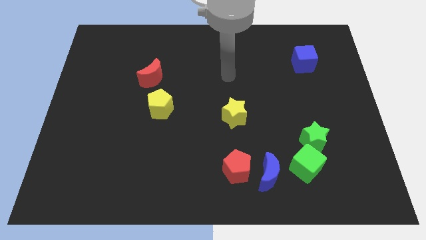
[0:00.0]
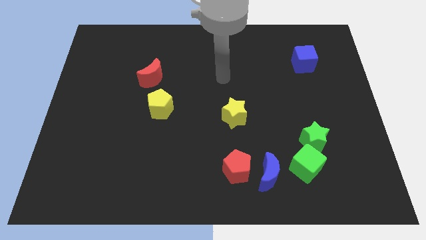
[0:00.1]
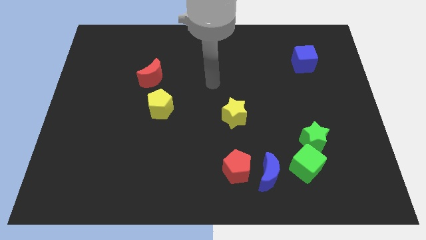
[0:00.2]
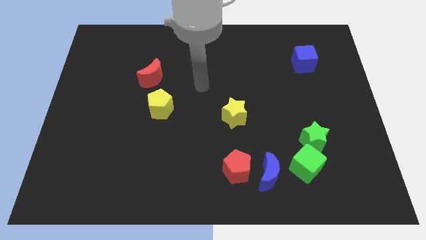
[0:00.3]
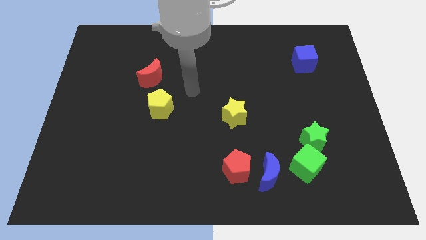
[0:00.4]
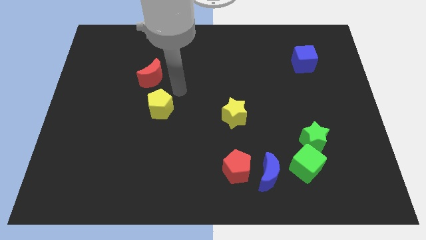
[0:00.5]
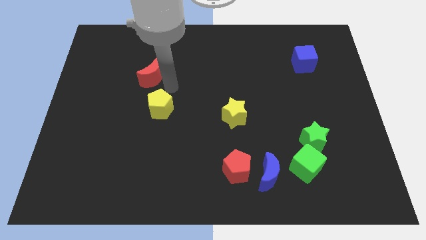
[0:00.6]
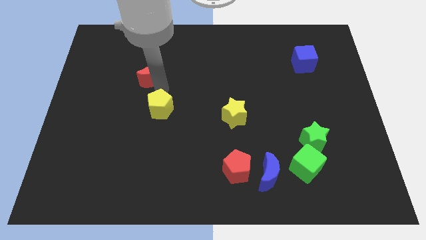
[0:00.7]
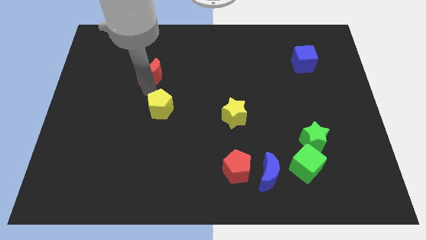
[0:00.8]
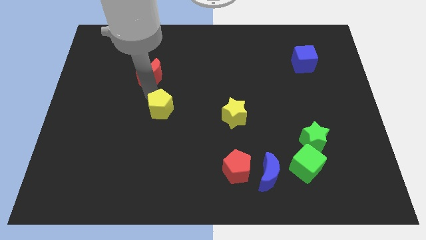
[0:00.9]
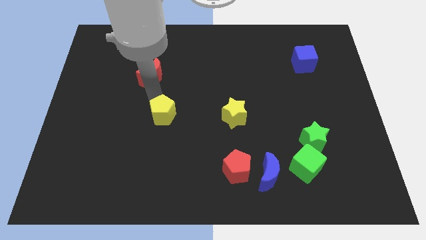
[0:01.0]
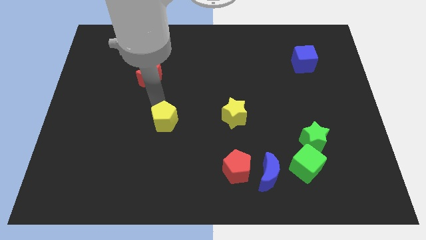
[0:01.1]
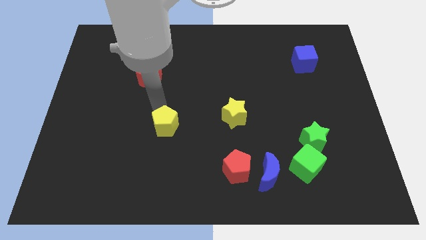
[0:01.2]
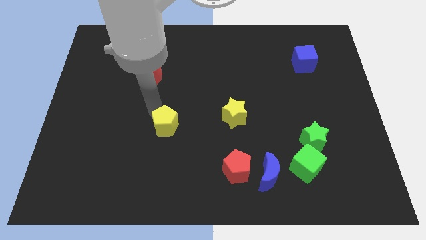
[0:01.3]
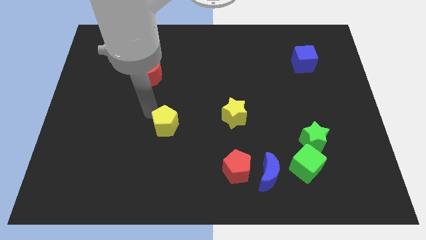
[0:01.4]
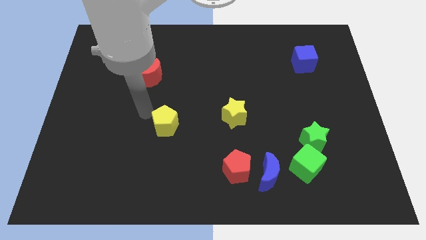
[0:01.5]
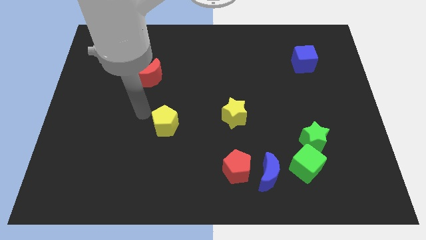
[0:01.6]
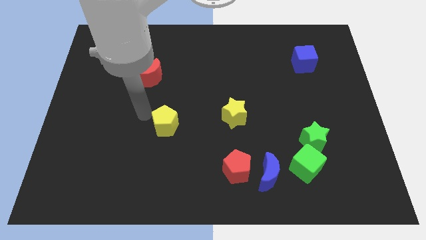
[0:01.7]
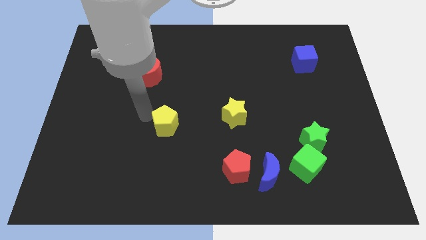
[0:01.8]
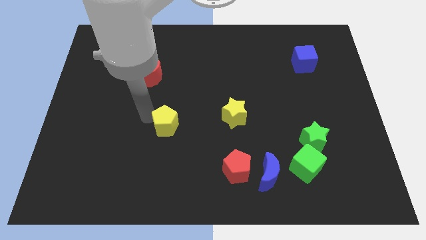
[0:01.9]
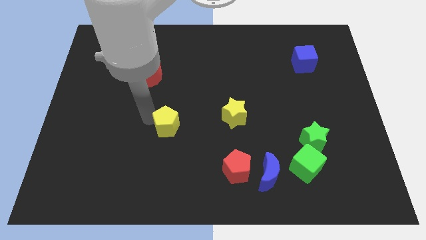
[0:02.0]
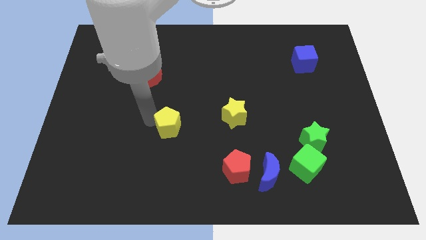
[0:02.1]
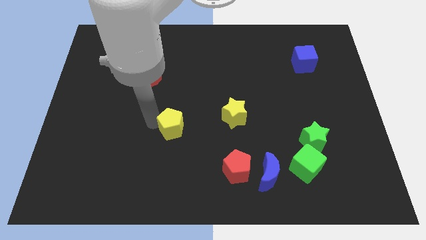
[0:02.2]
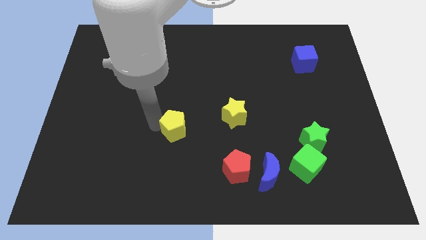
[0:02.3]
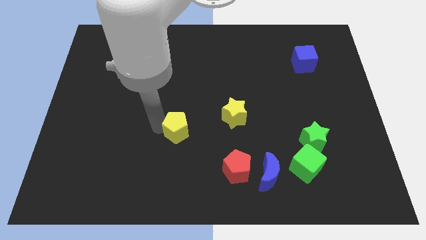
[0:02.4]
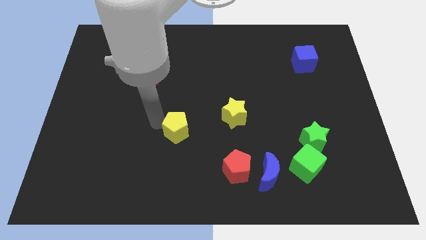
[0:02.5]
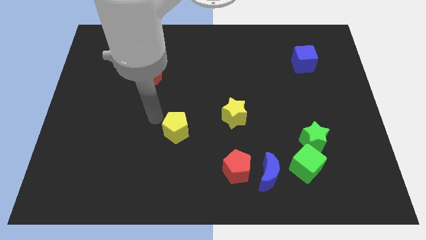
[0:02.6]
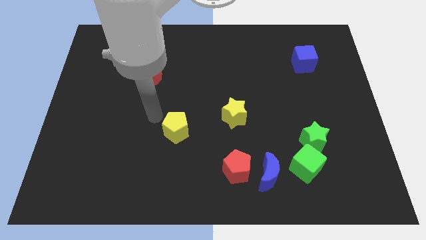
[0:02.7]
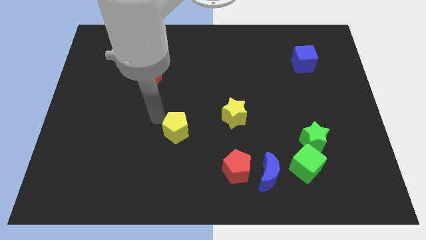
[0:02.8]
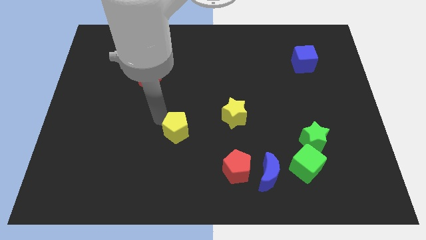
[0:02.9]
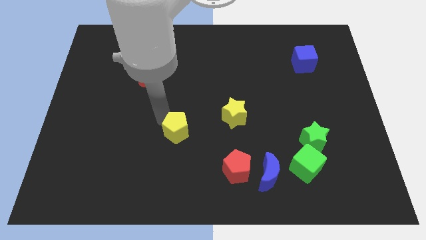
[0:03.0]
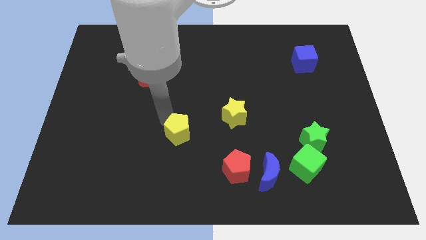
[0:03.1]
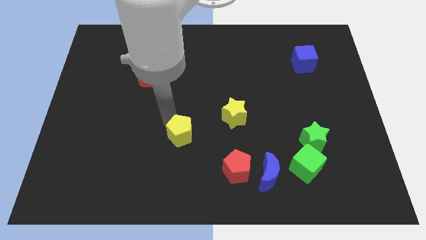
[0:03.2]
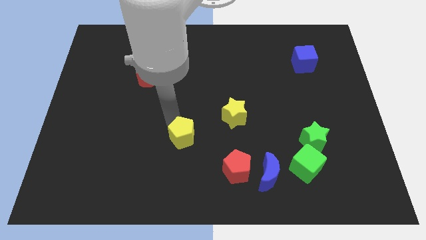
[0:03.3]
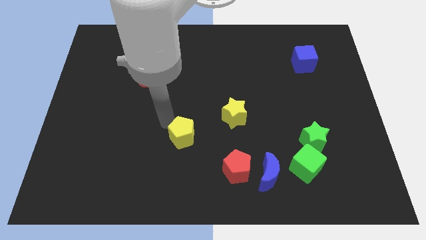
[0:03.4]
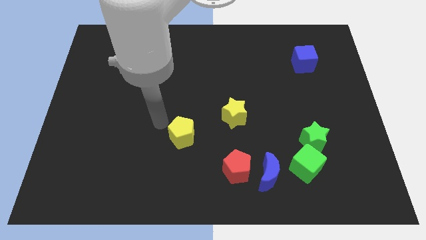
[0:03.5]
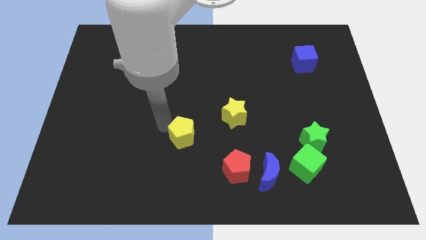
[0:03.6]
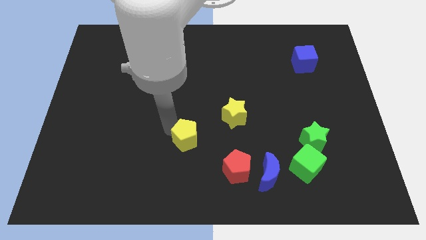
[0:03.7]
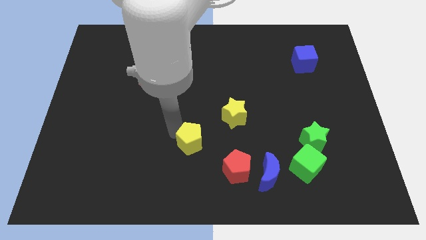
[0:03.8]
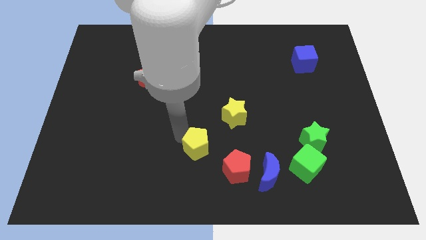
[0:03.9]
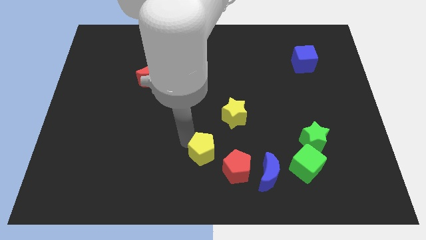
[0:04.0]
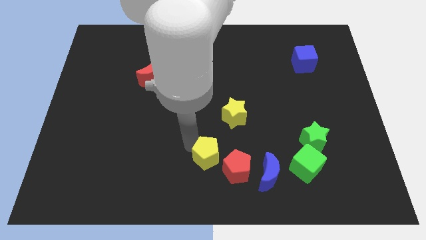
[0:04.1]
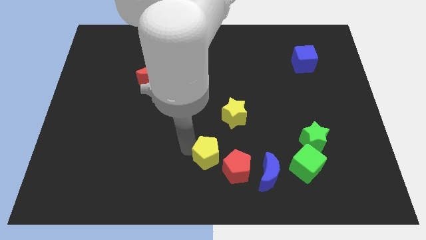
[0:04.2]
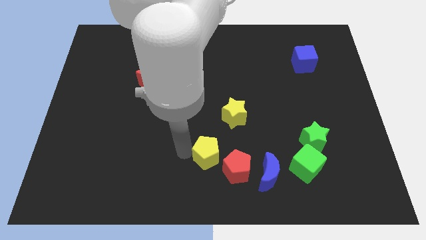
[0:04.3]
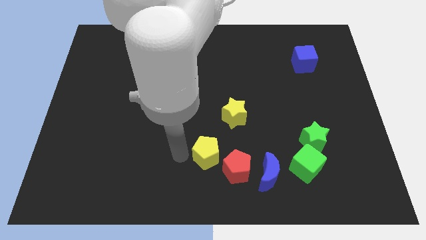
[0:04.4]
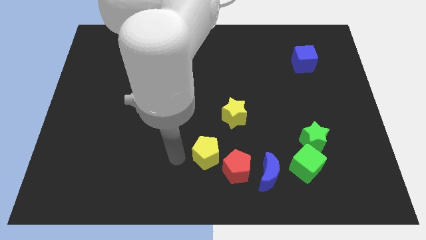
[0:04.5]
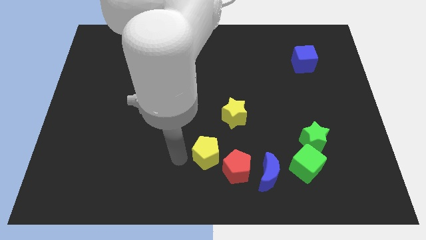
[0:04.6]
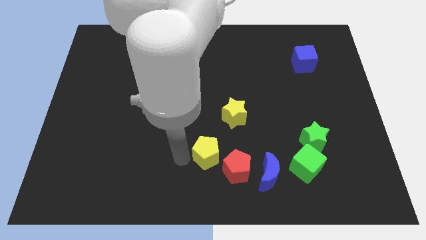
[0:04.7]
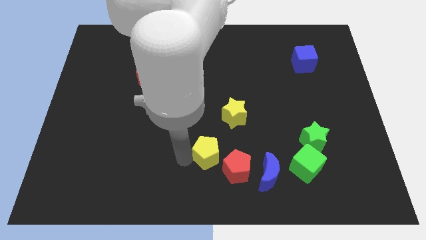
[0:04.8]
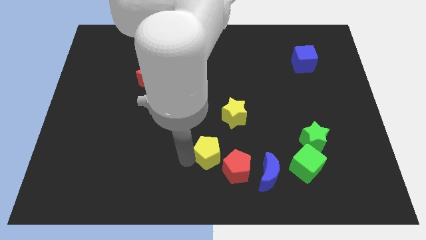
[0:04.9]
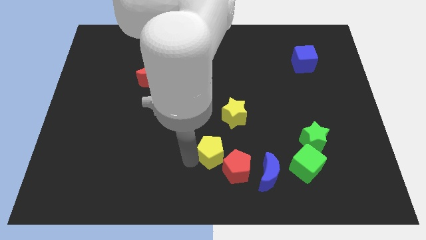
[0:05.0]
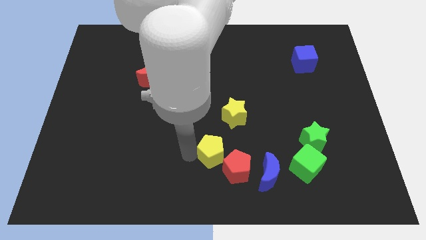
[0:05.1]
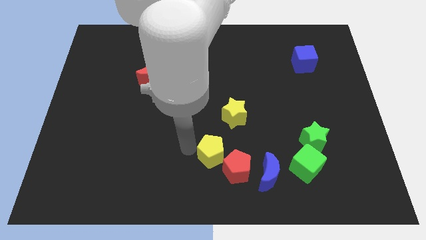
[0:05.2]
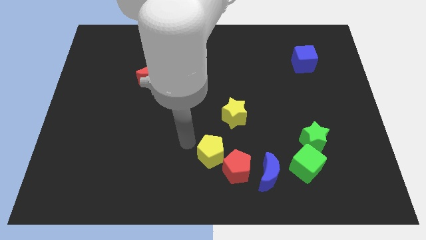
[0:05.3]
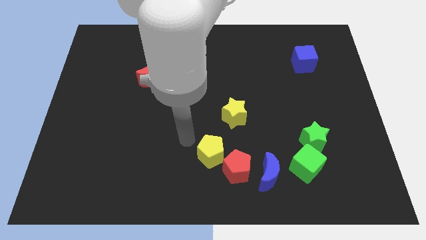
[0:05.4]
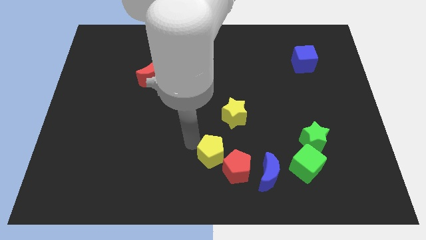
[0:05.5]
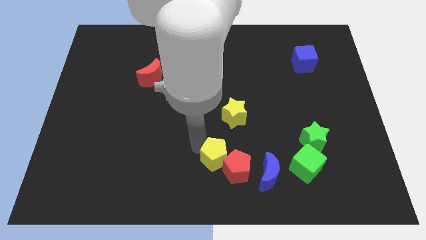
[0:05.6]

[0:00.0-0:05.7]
move the yellow pentagon close to the red pentagon

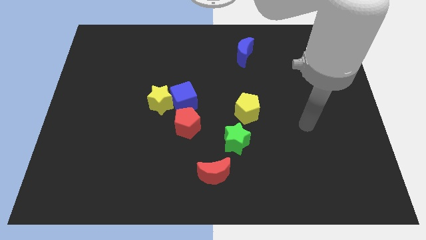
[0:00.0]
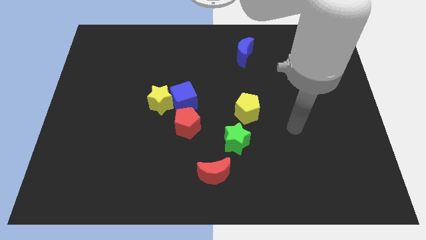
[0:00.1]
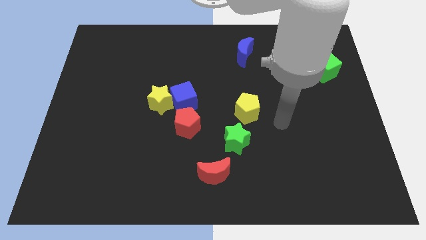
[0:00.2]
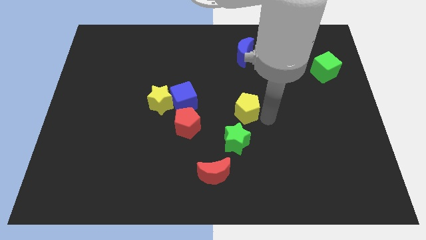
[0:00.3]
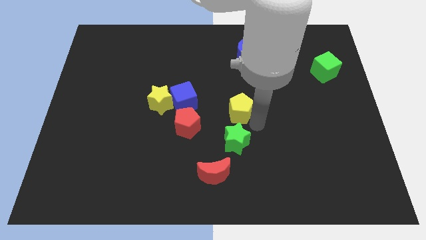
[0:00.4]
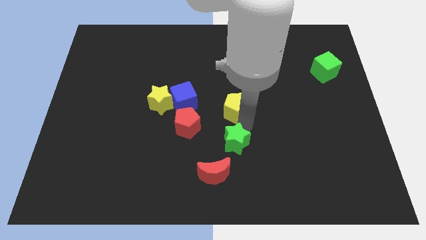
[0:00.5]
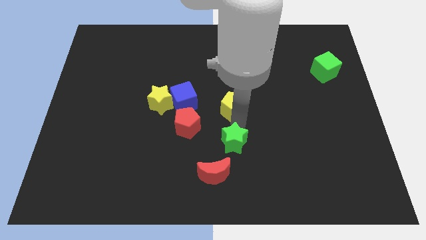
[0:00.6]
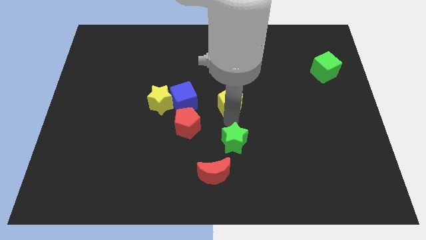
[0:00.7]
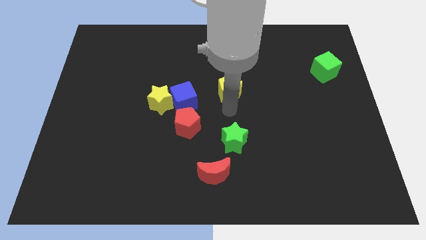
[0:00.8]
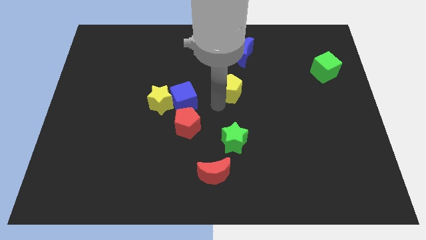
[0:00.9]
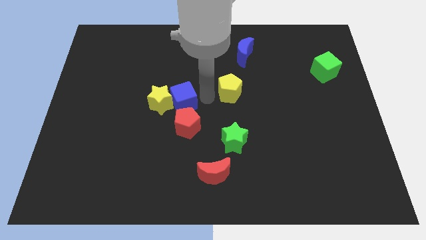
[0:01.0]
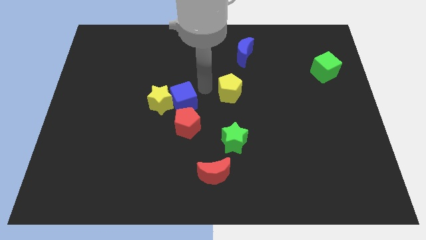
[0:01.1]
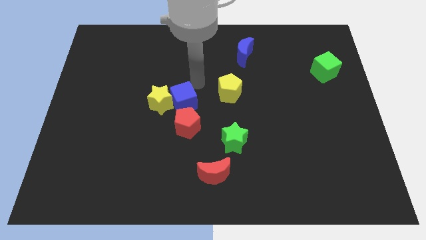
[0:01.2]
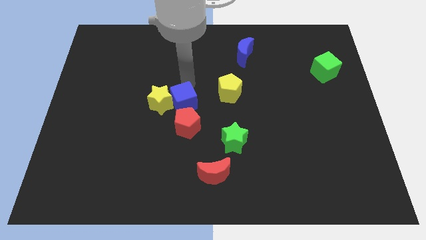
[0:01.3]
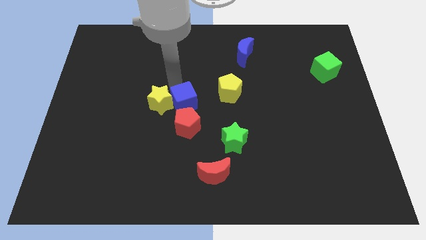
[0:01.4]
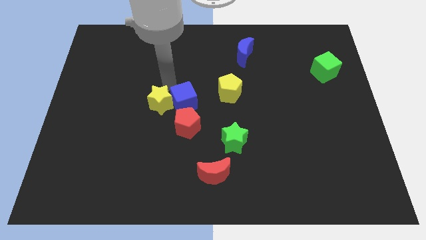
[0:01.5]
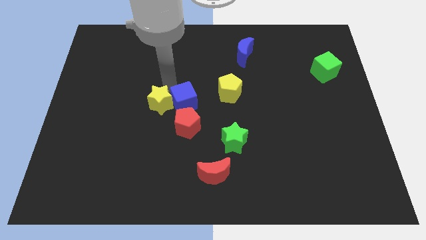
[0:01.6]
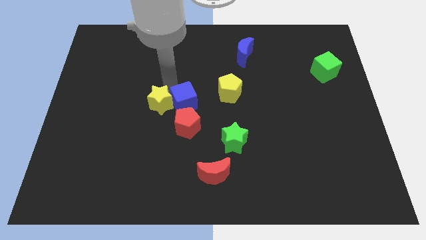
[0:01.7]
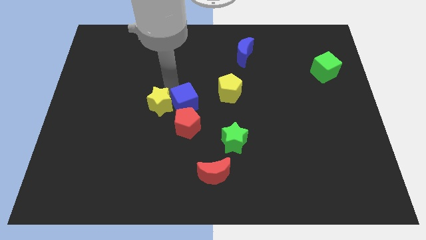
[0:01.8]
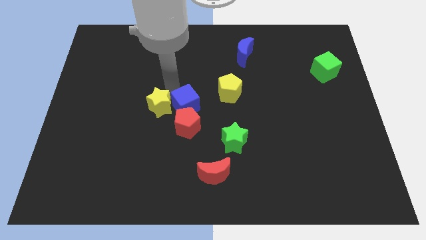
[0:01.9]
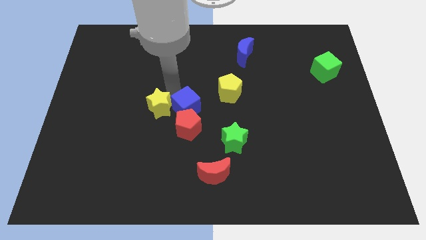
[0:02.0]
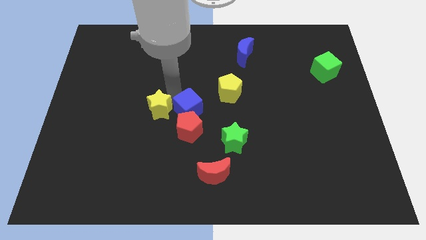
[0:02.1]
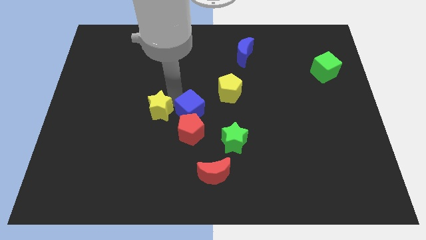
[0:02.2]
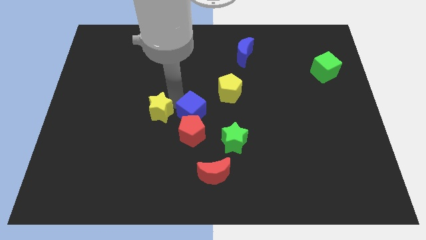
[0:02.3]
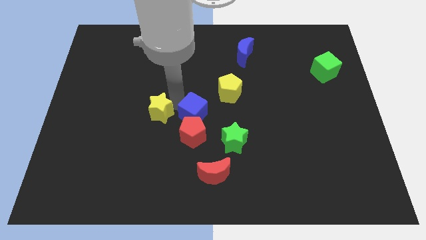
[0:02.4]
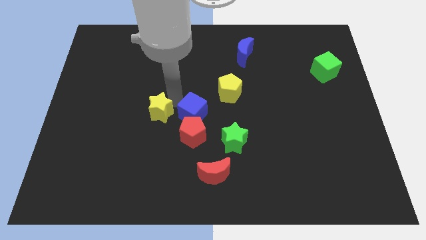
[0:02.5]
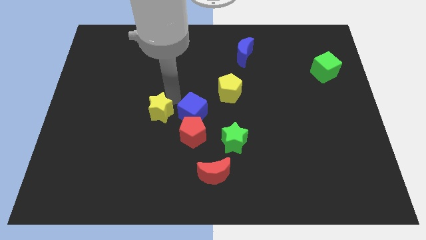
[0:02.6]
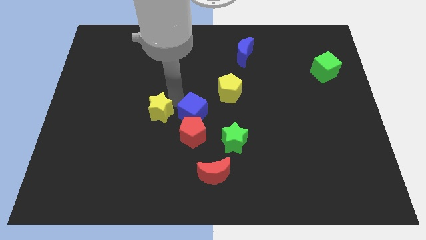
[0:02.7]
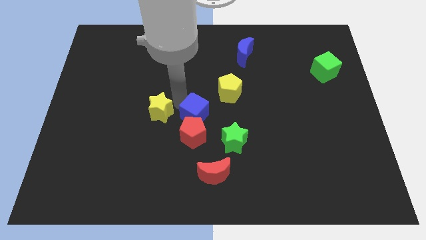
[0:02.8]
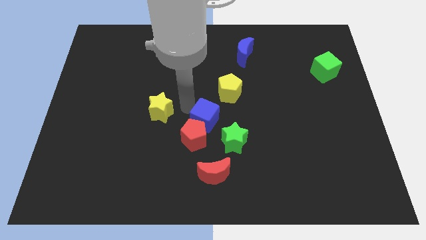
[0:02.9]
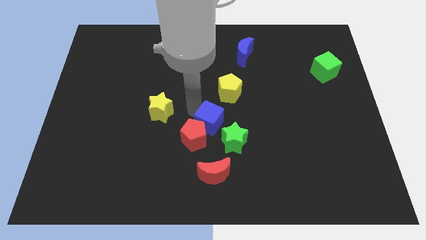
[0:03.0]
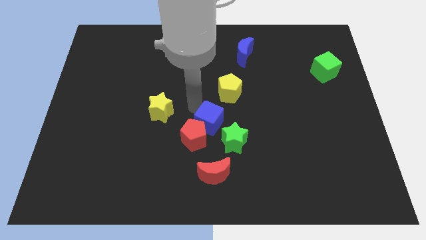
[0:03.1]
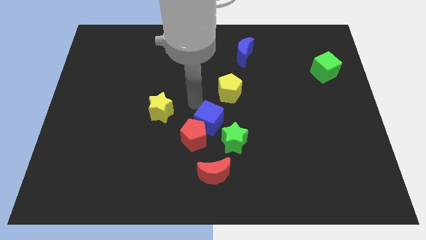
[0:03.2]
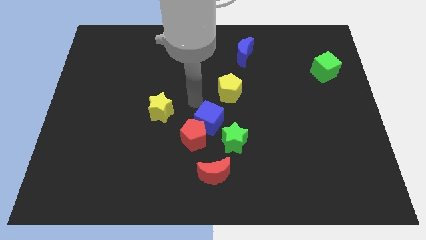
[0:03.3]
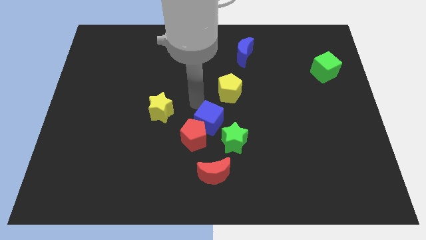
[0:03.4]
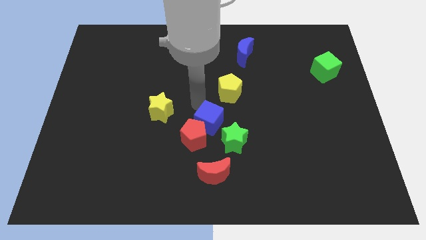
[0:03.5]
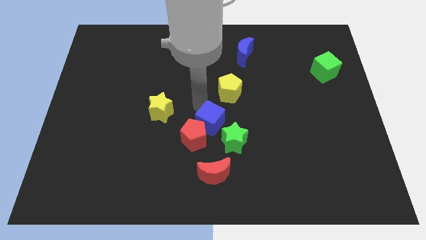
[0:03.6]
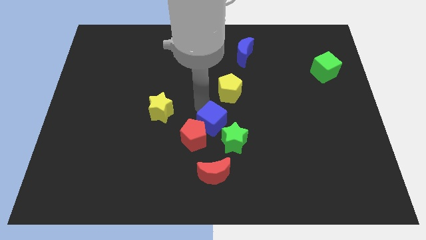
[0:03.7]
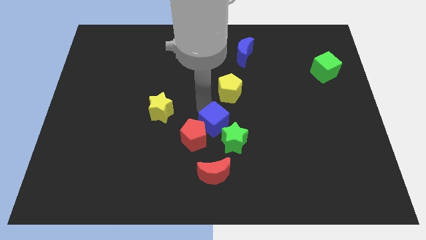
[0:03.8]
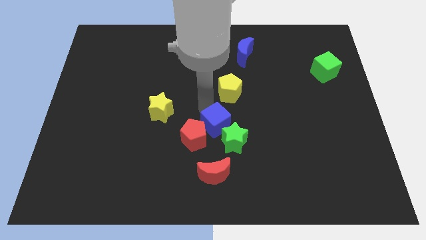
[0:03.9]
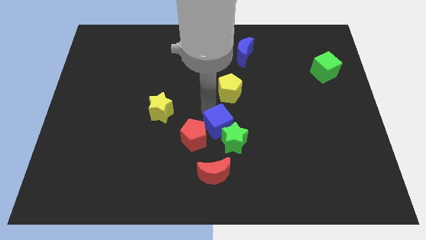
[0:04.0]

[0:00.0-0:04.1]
push the blue cube close to the green star
